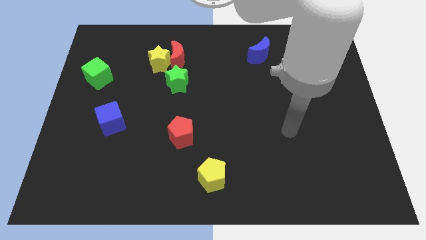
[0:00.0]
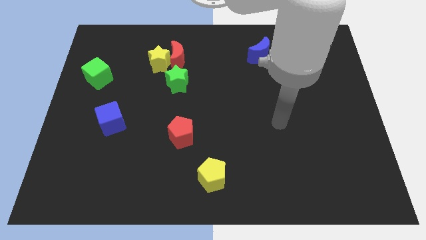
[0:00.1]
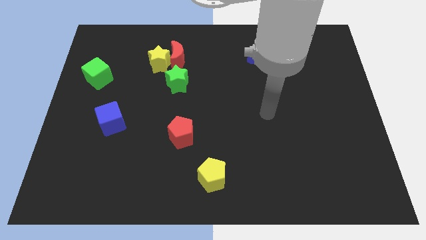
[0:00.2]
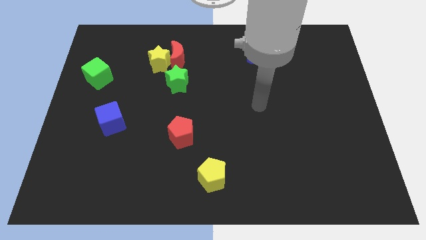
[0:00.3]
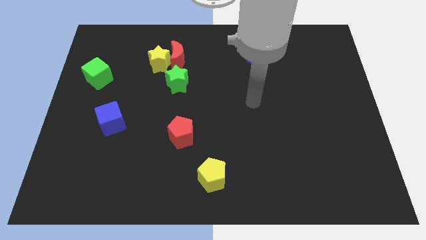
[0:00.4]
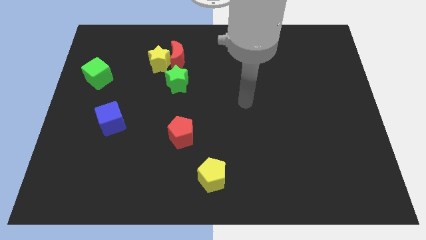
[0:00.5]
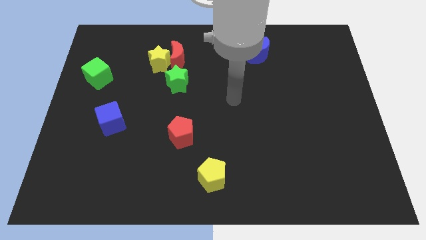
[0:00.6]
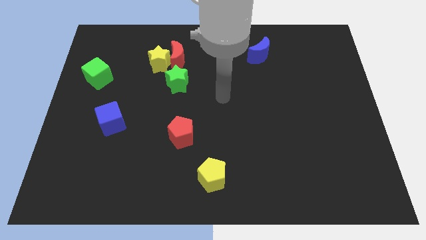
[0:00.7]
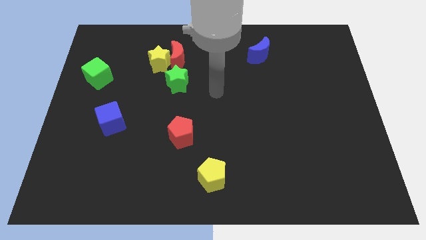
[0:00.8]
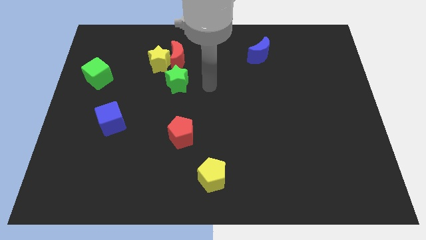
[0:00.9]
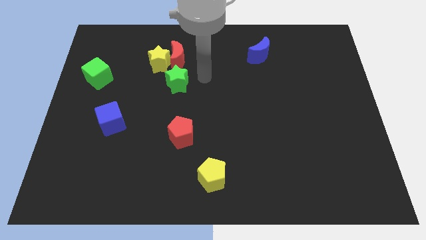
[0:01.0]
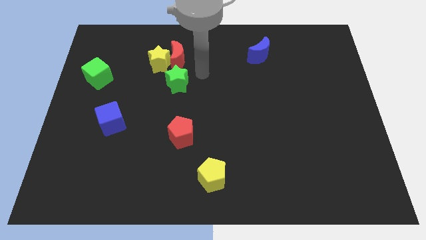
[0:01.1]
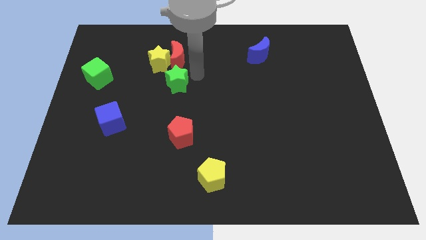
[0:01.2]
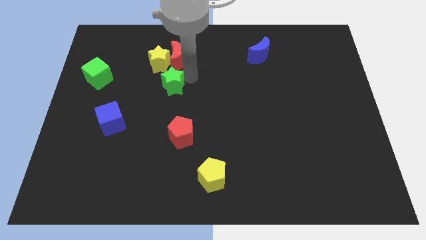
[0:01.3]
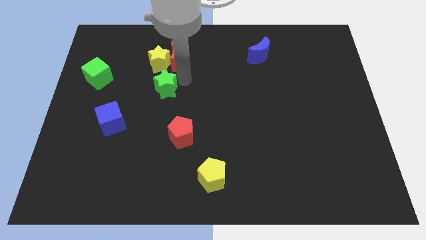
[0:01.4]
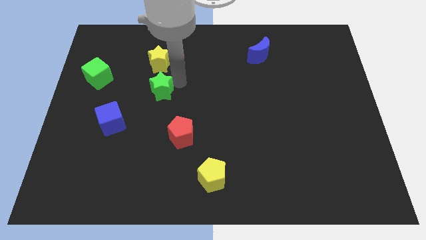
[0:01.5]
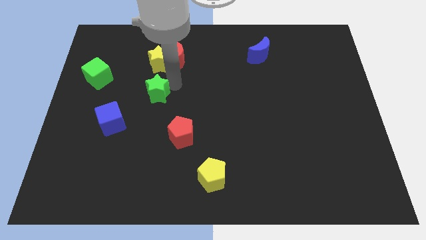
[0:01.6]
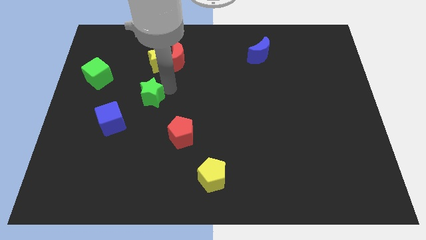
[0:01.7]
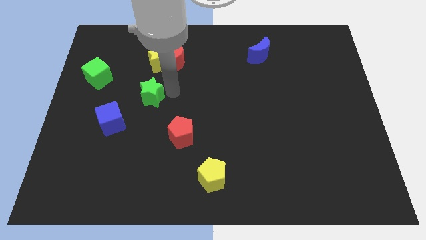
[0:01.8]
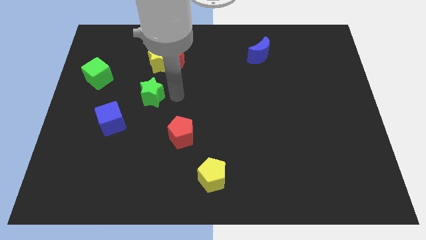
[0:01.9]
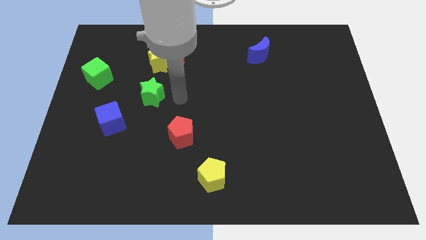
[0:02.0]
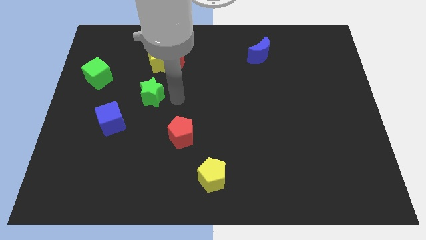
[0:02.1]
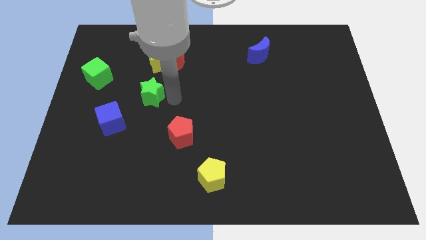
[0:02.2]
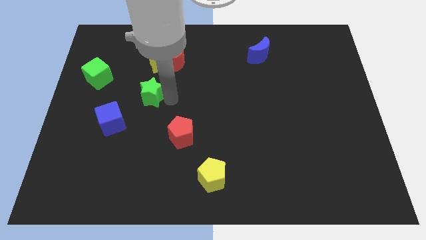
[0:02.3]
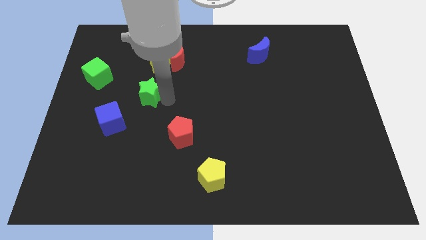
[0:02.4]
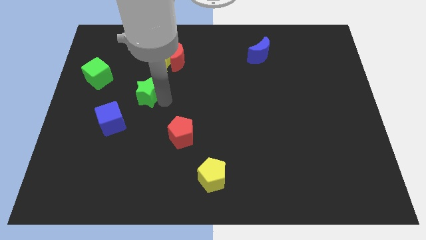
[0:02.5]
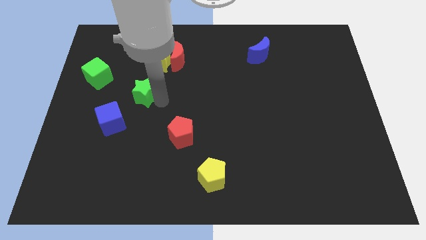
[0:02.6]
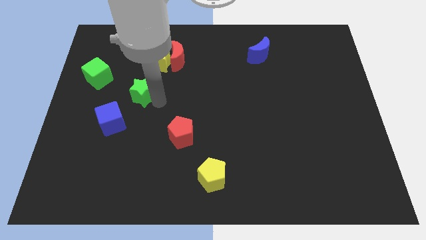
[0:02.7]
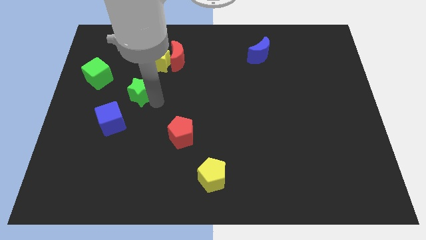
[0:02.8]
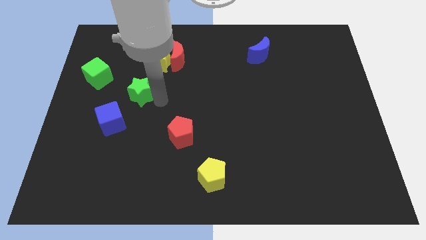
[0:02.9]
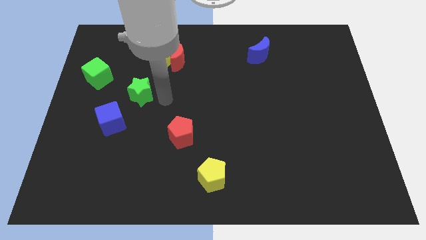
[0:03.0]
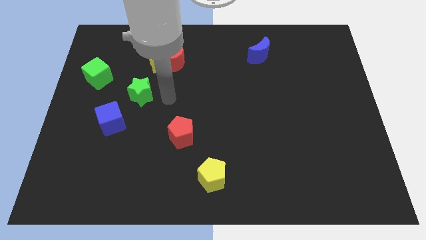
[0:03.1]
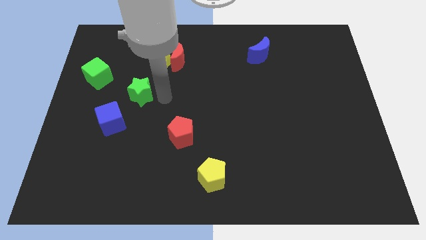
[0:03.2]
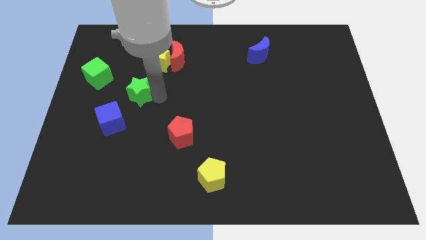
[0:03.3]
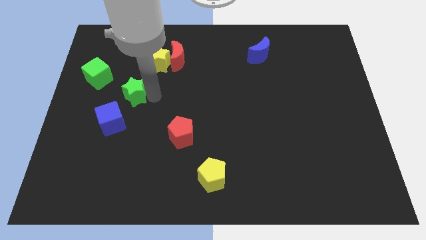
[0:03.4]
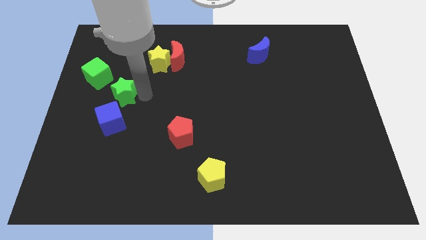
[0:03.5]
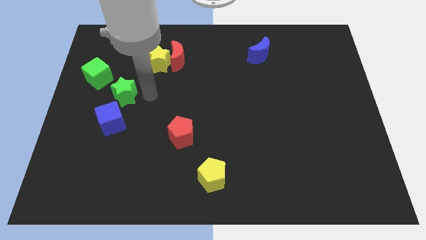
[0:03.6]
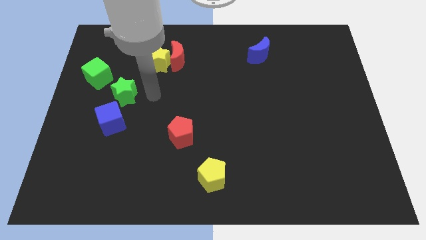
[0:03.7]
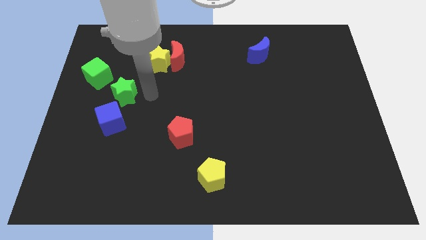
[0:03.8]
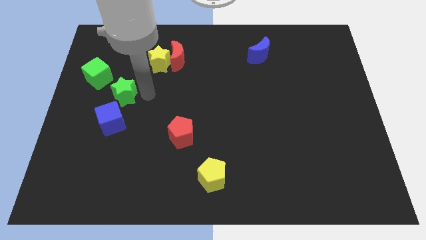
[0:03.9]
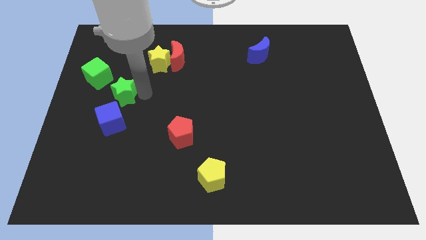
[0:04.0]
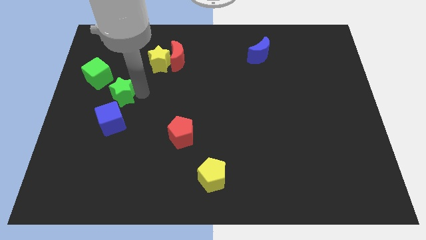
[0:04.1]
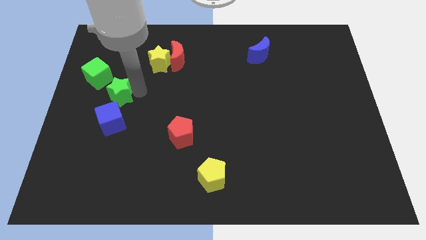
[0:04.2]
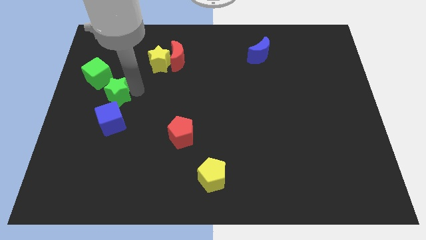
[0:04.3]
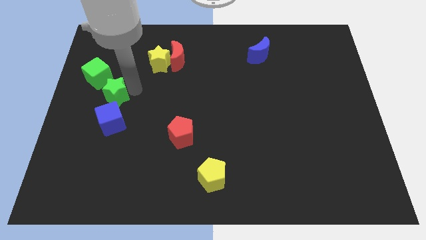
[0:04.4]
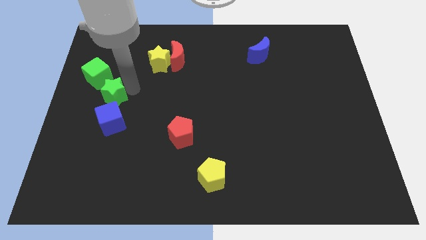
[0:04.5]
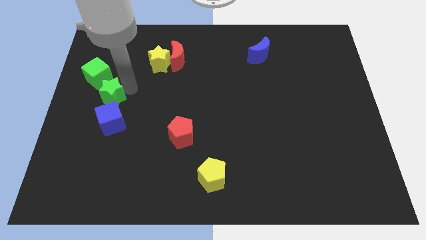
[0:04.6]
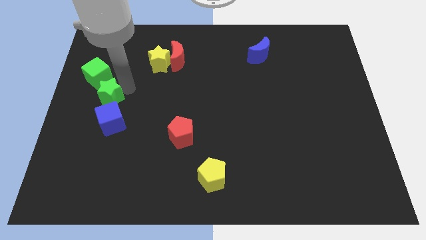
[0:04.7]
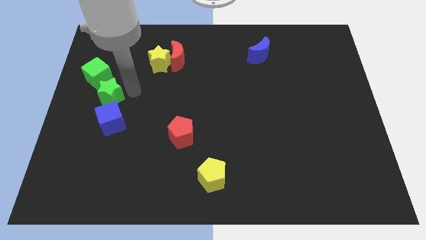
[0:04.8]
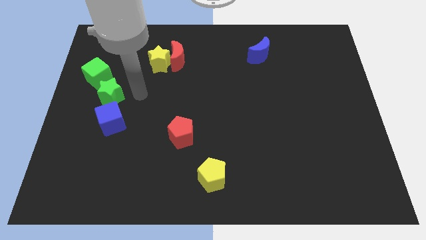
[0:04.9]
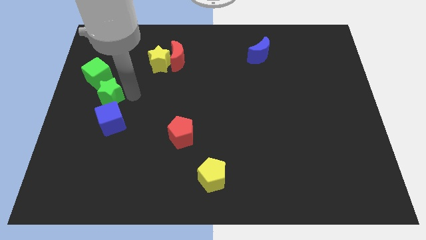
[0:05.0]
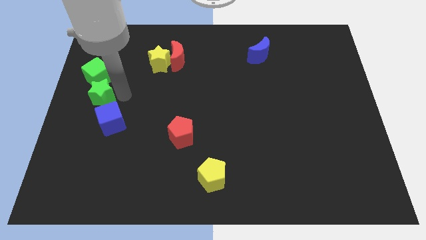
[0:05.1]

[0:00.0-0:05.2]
move the green star to the center left

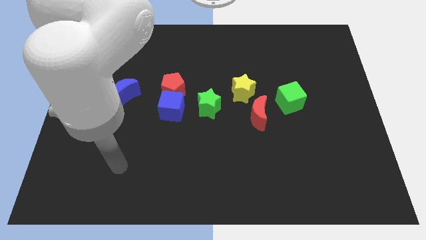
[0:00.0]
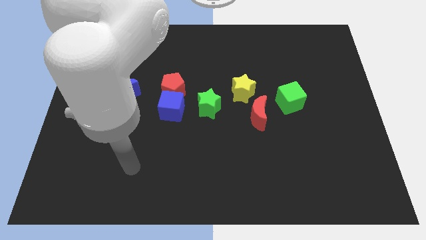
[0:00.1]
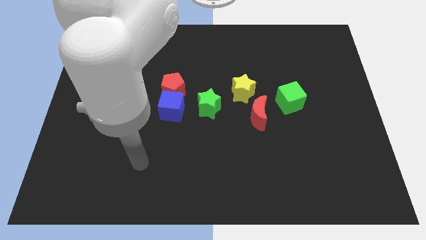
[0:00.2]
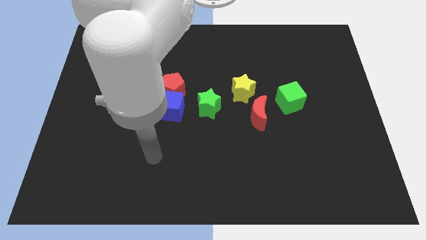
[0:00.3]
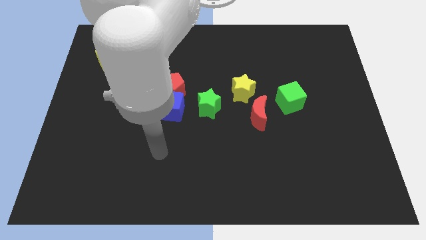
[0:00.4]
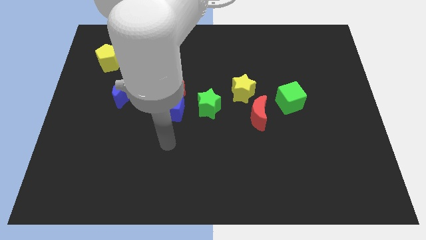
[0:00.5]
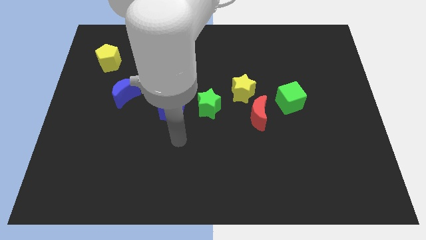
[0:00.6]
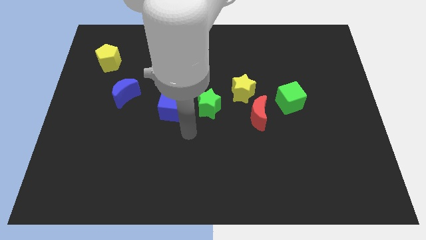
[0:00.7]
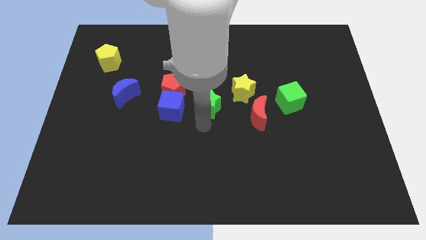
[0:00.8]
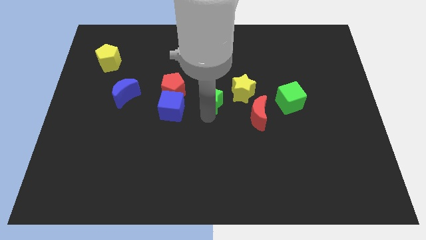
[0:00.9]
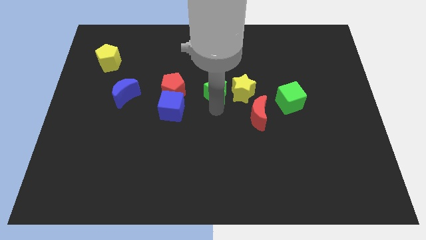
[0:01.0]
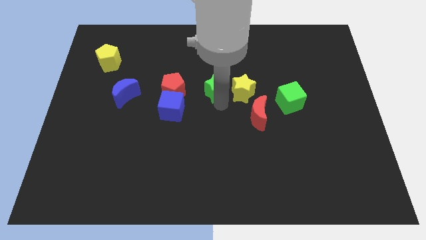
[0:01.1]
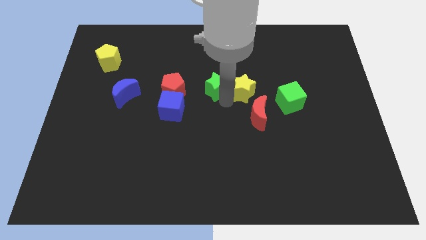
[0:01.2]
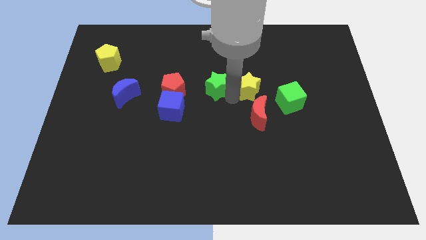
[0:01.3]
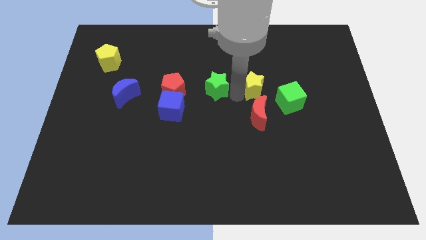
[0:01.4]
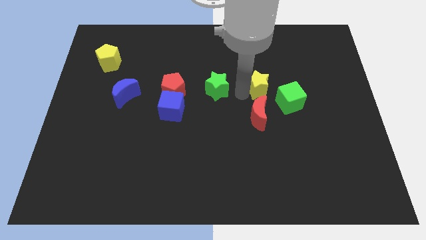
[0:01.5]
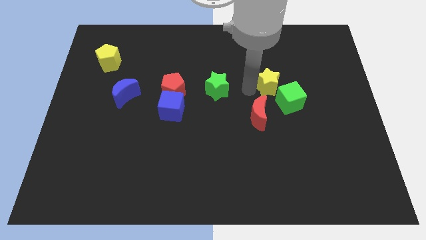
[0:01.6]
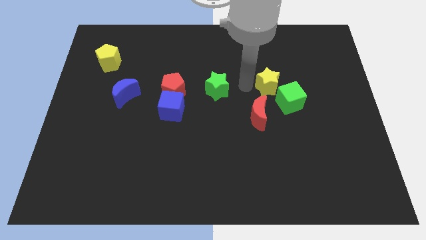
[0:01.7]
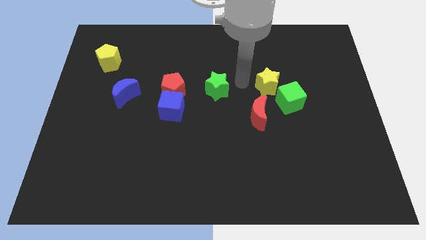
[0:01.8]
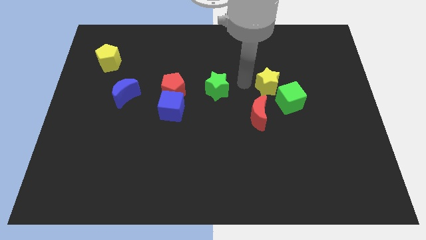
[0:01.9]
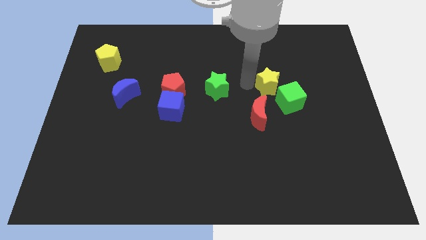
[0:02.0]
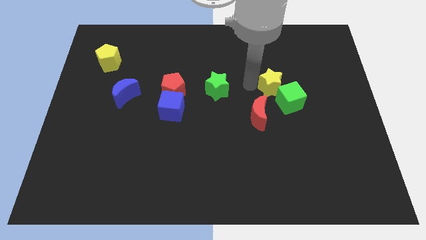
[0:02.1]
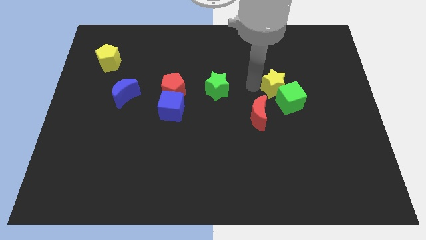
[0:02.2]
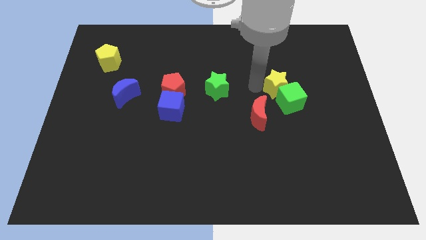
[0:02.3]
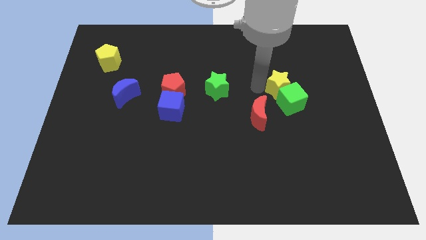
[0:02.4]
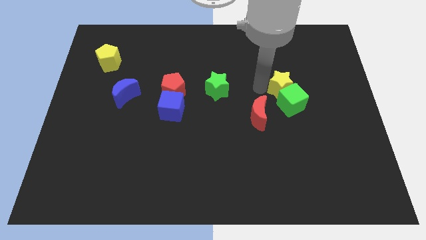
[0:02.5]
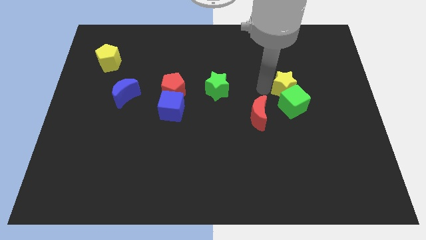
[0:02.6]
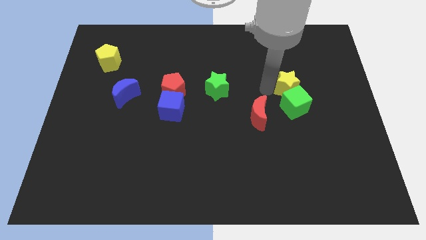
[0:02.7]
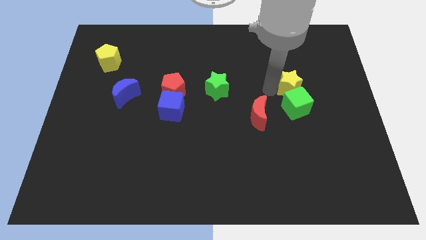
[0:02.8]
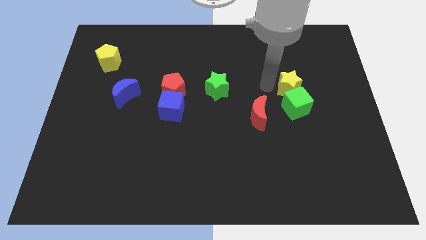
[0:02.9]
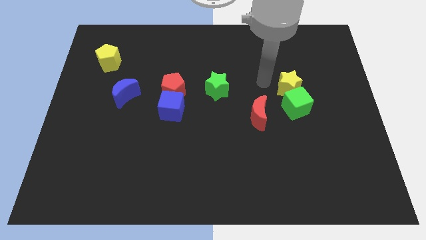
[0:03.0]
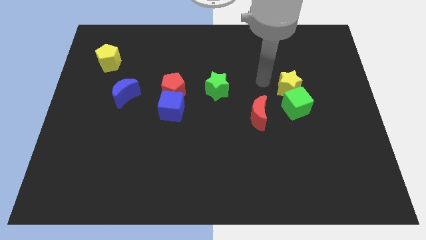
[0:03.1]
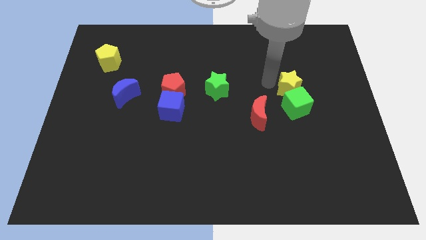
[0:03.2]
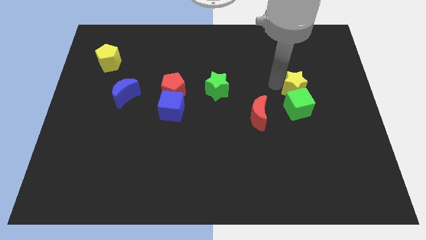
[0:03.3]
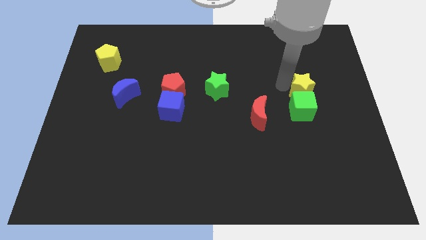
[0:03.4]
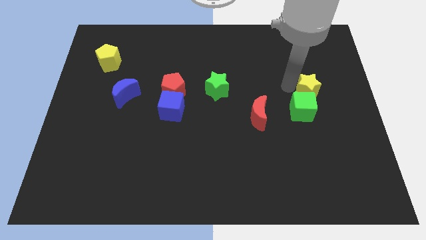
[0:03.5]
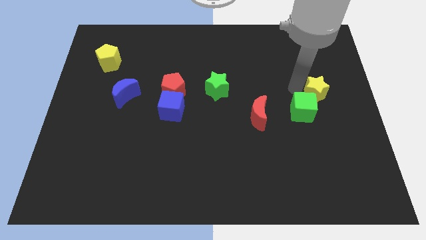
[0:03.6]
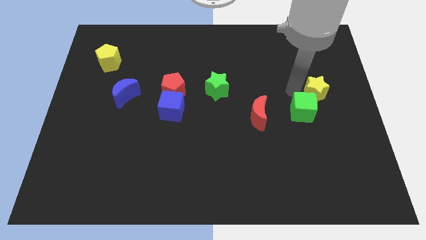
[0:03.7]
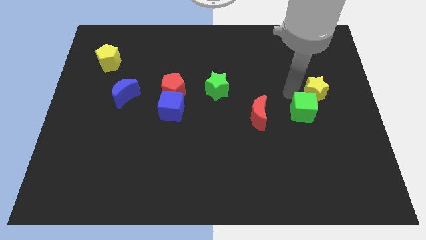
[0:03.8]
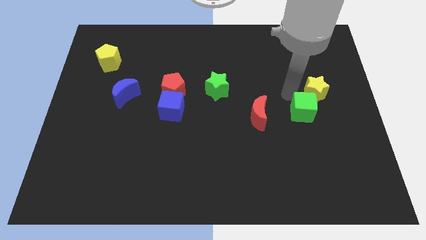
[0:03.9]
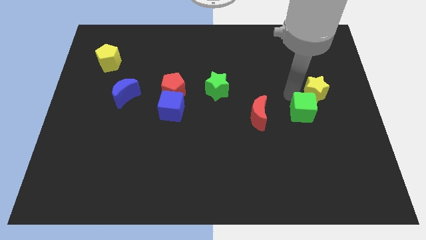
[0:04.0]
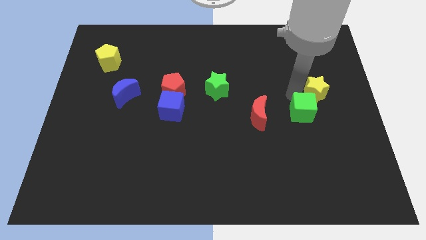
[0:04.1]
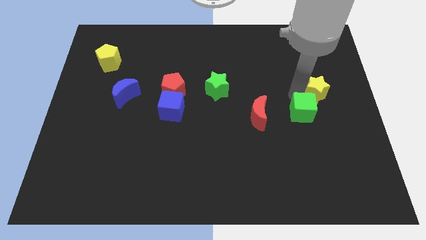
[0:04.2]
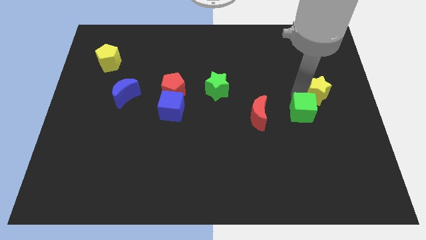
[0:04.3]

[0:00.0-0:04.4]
move the yellow star to the right side
